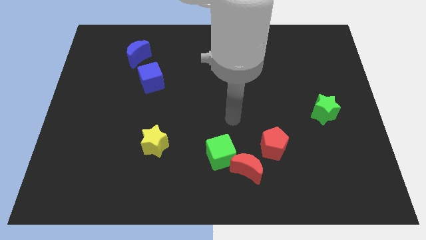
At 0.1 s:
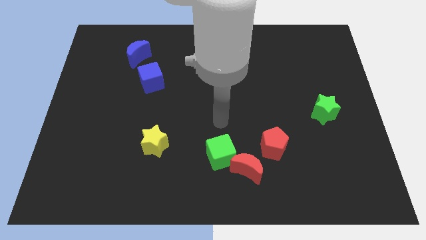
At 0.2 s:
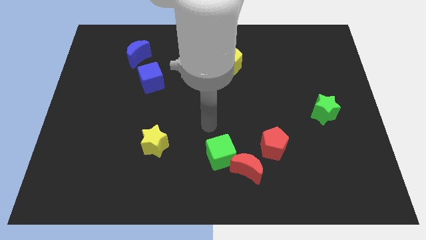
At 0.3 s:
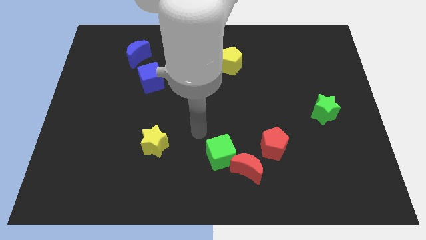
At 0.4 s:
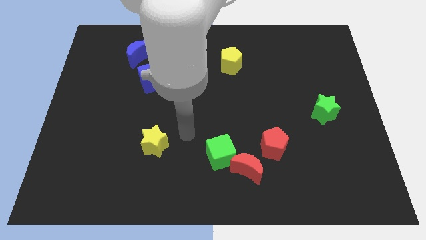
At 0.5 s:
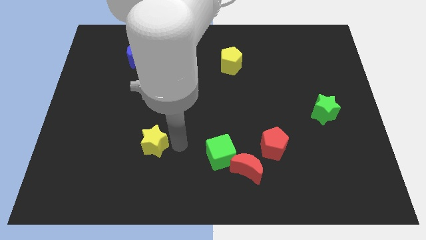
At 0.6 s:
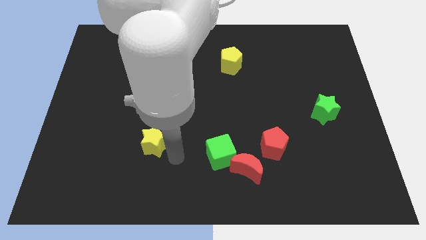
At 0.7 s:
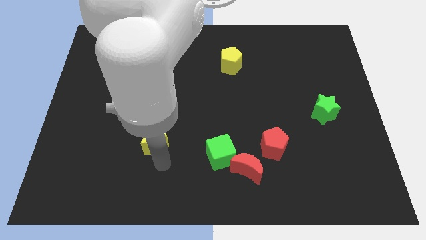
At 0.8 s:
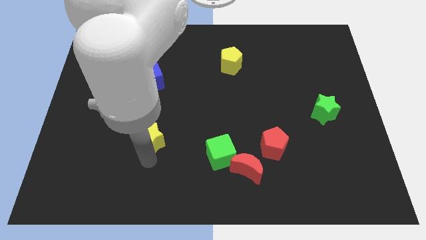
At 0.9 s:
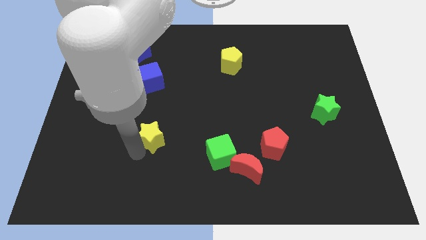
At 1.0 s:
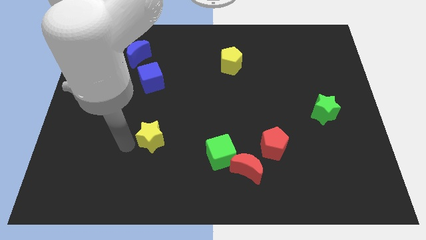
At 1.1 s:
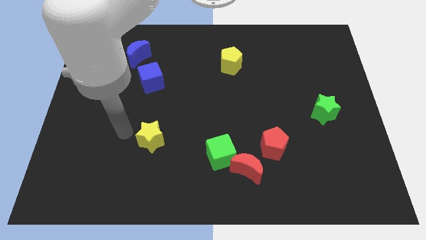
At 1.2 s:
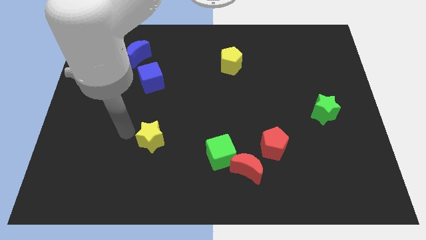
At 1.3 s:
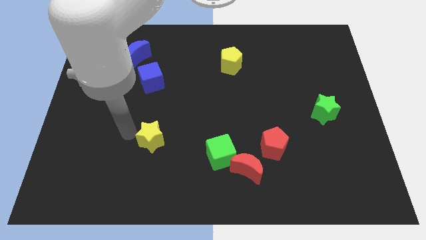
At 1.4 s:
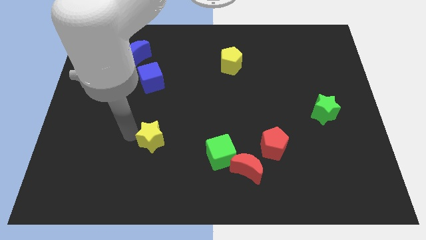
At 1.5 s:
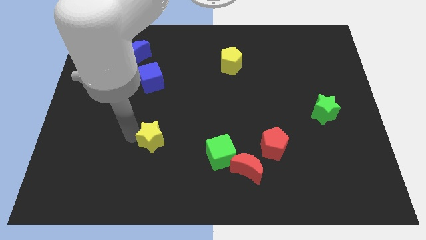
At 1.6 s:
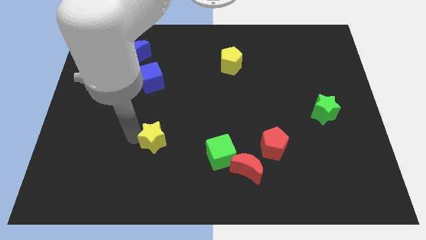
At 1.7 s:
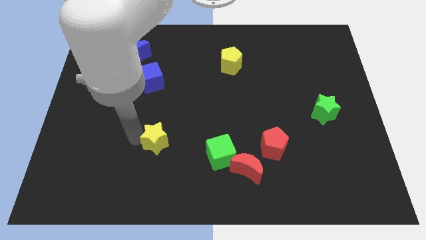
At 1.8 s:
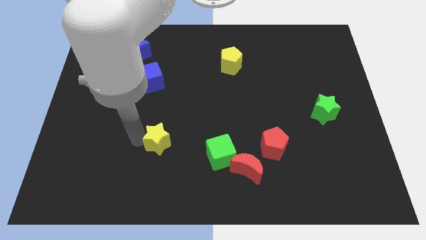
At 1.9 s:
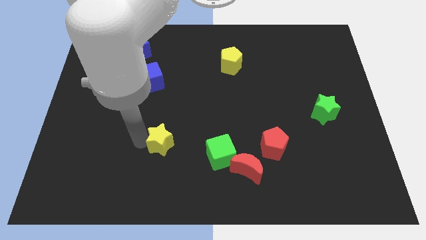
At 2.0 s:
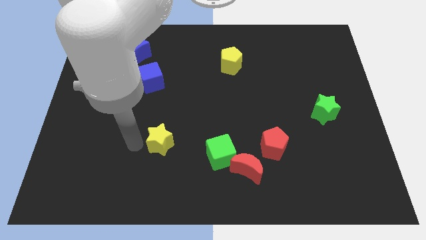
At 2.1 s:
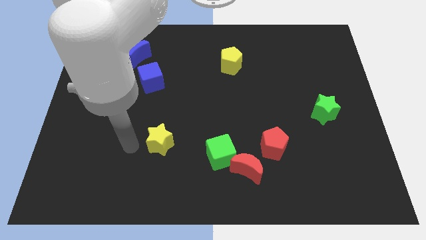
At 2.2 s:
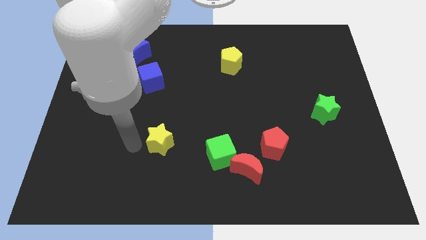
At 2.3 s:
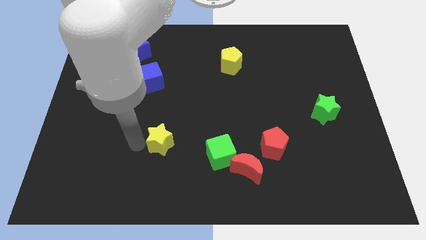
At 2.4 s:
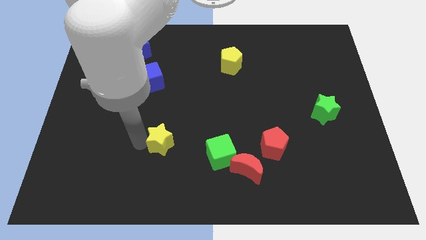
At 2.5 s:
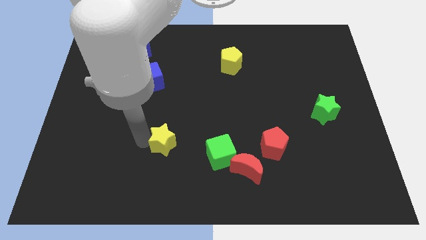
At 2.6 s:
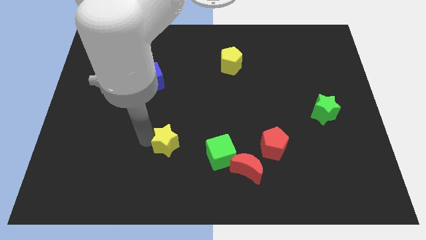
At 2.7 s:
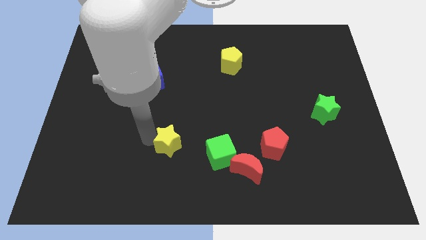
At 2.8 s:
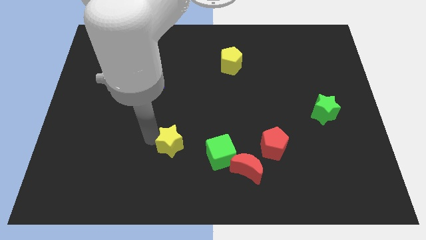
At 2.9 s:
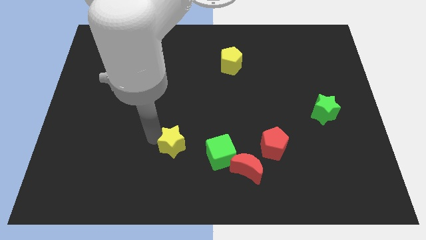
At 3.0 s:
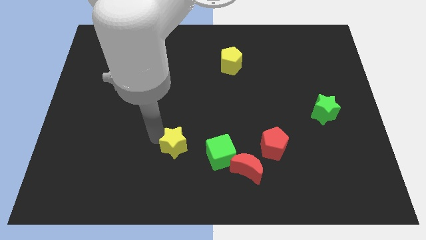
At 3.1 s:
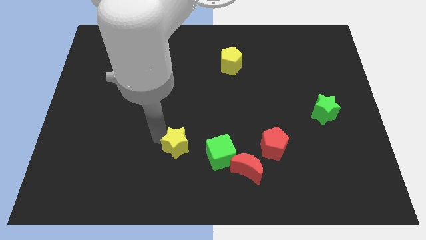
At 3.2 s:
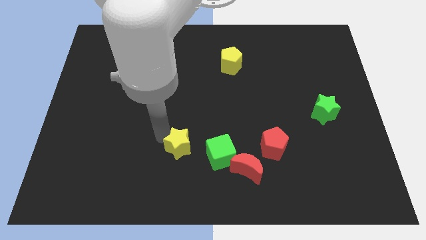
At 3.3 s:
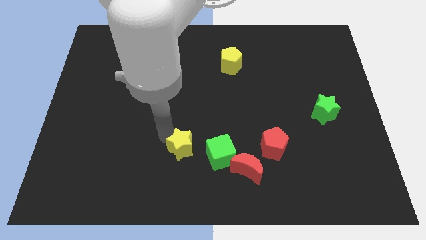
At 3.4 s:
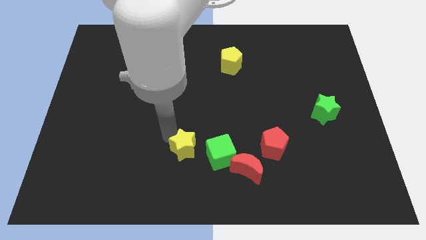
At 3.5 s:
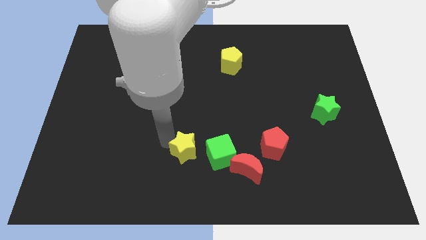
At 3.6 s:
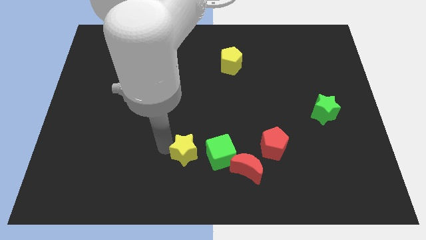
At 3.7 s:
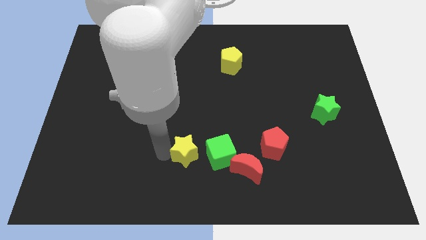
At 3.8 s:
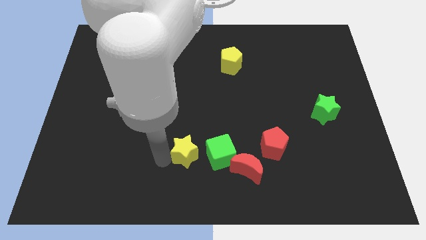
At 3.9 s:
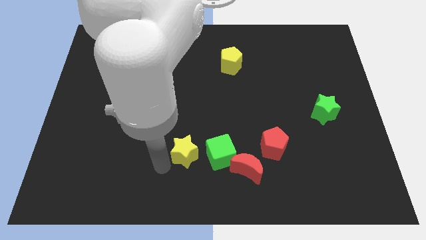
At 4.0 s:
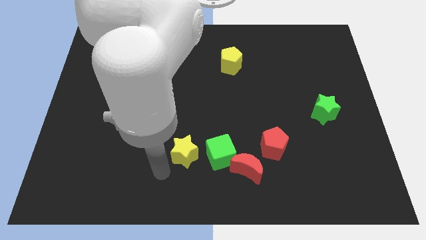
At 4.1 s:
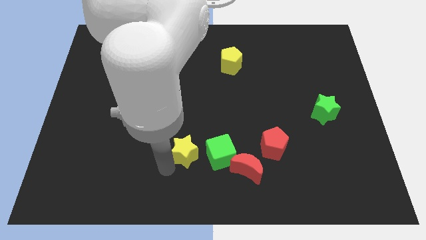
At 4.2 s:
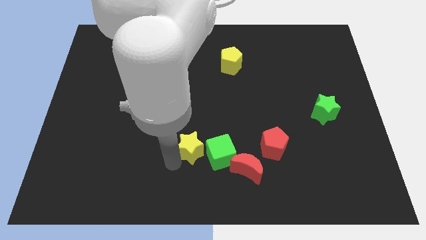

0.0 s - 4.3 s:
slightly push the yellow star to the right

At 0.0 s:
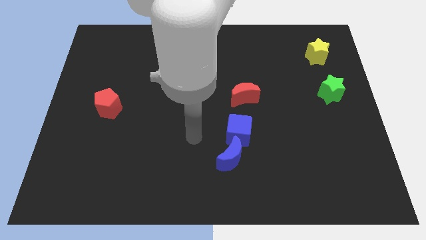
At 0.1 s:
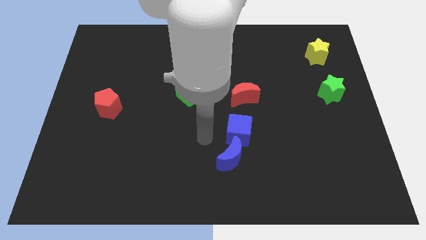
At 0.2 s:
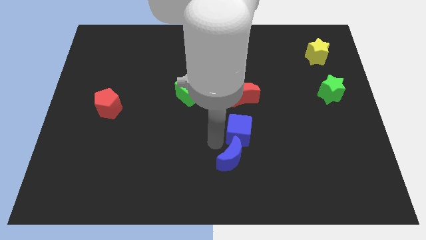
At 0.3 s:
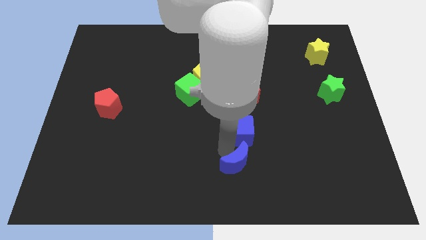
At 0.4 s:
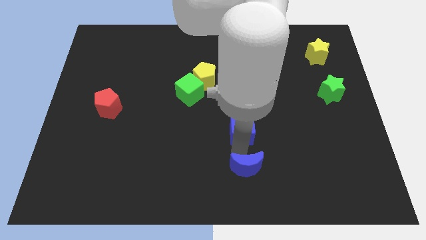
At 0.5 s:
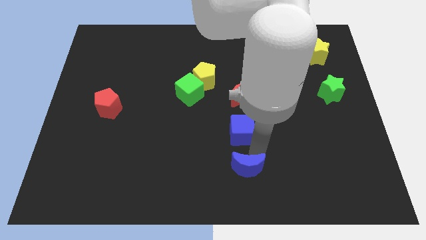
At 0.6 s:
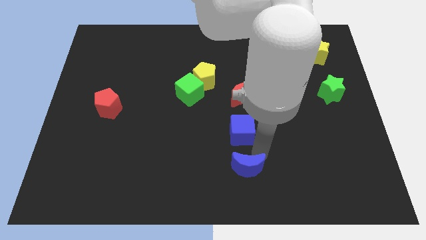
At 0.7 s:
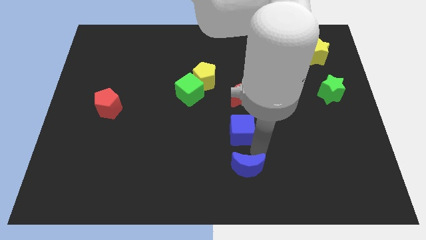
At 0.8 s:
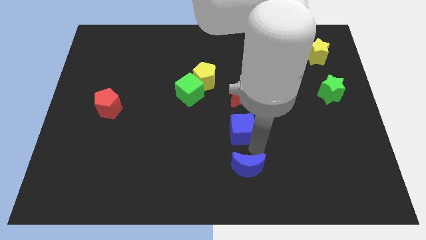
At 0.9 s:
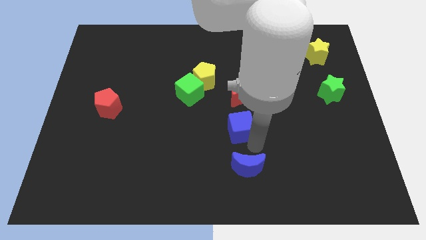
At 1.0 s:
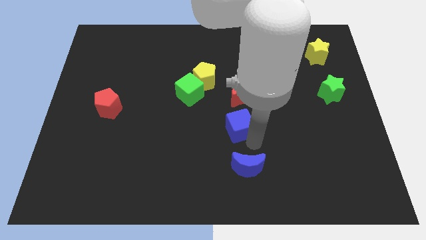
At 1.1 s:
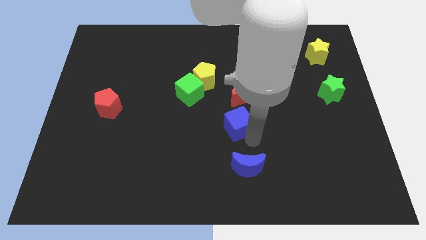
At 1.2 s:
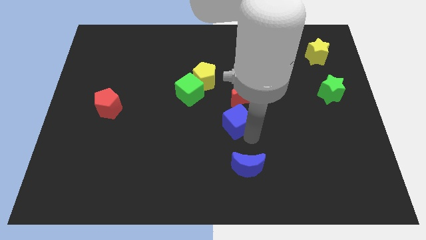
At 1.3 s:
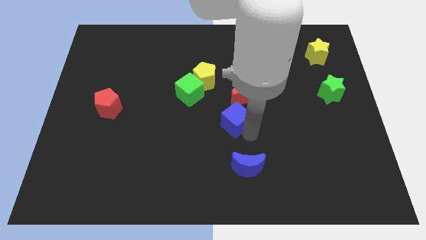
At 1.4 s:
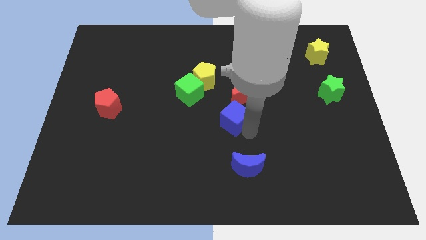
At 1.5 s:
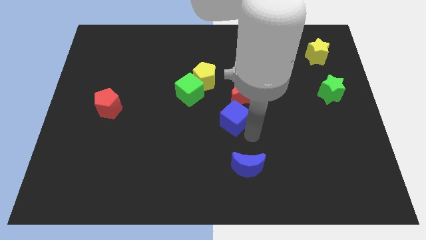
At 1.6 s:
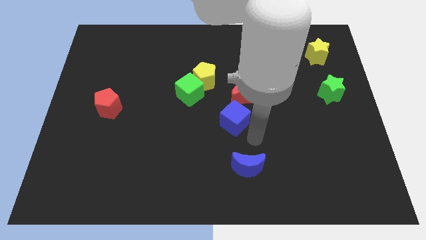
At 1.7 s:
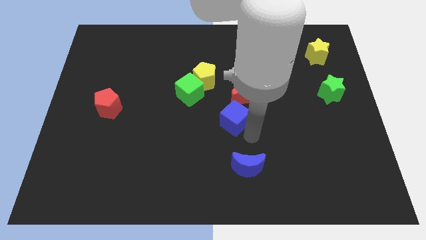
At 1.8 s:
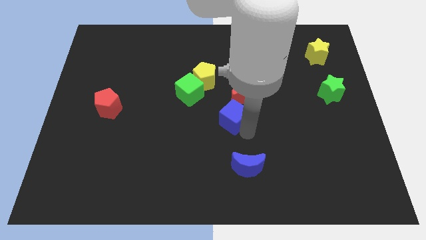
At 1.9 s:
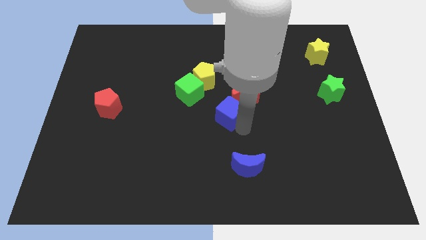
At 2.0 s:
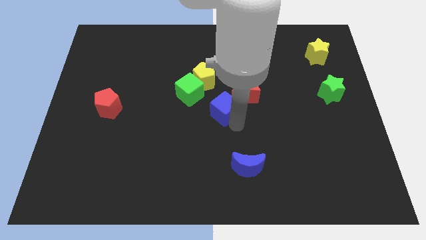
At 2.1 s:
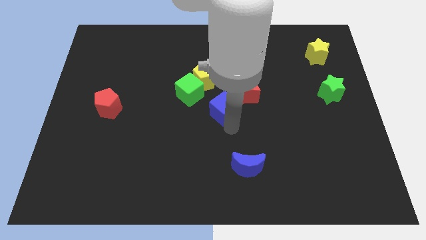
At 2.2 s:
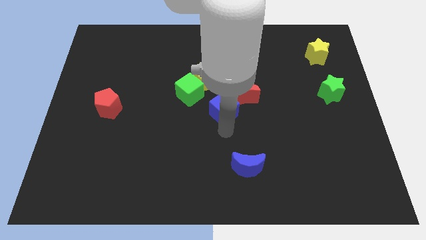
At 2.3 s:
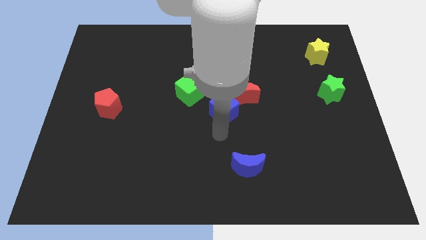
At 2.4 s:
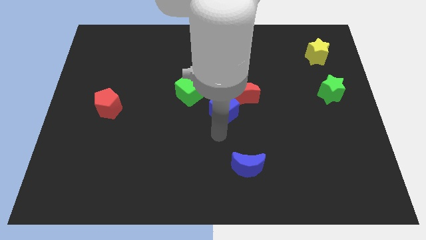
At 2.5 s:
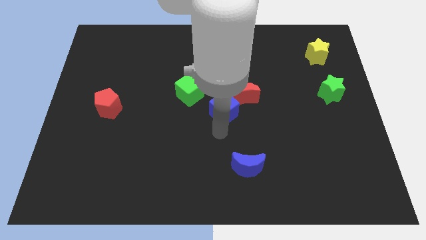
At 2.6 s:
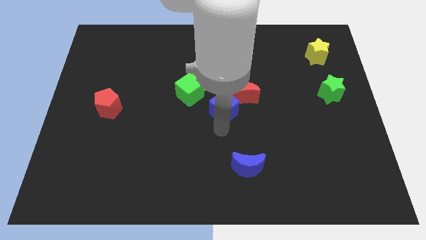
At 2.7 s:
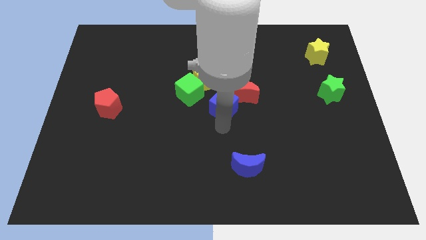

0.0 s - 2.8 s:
slightly slide the blue cube upwards

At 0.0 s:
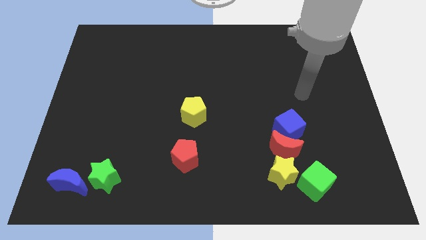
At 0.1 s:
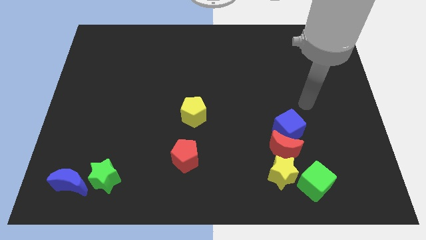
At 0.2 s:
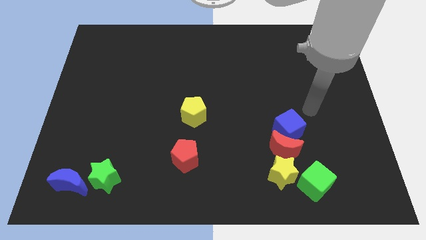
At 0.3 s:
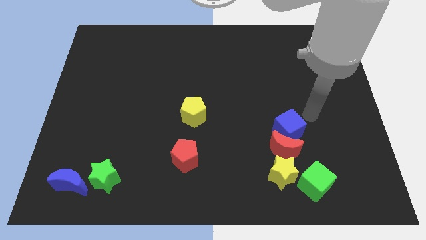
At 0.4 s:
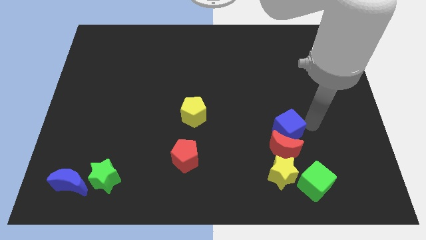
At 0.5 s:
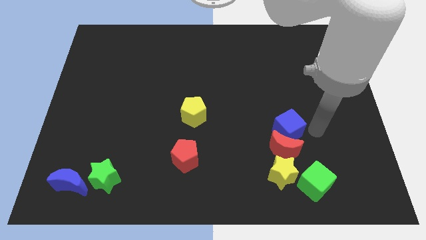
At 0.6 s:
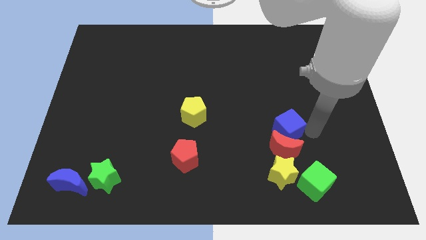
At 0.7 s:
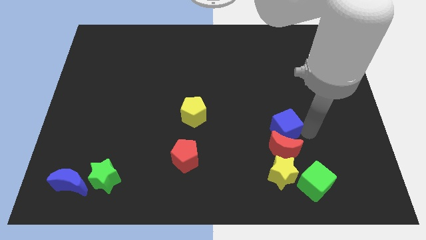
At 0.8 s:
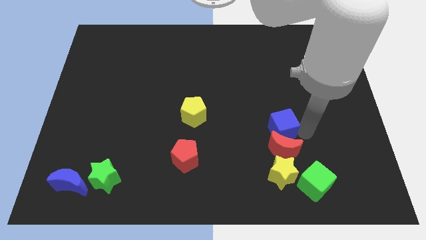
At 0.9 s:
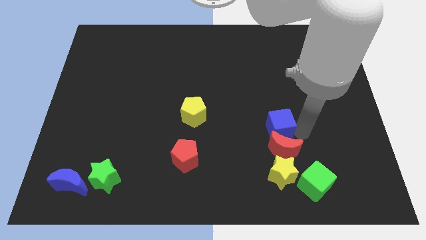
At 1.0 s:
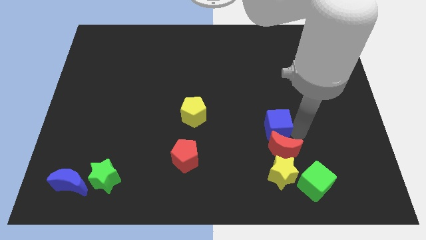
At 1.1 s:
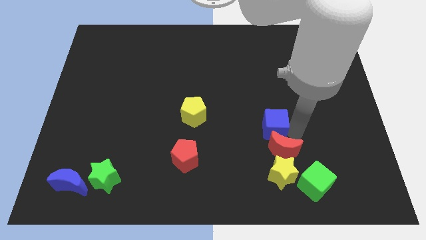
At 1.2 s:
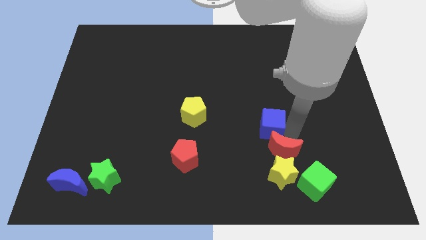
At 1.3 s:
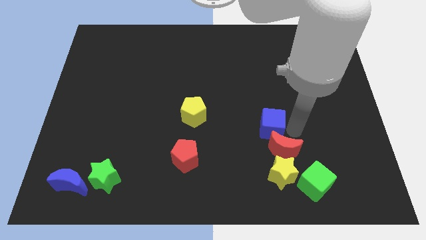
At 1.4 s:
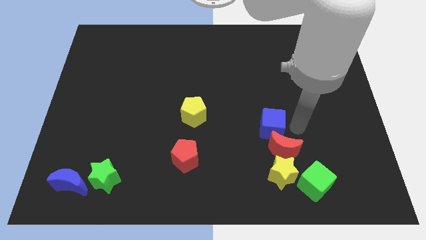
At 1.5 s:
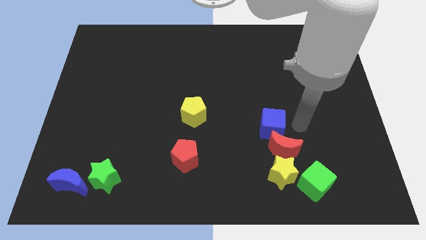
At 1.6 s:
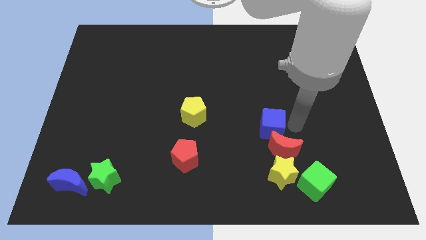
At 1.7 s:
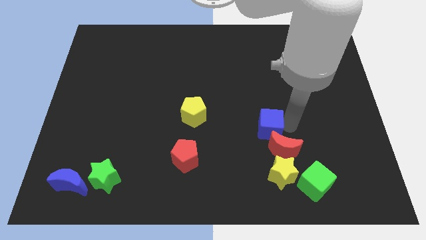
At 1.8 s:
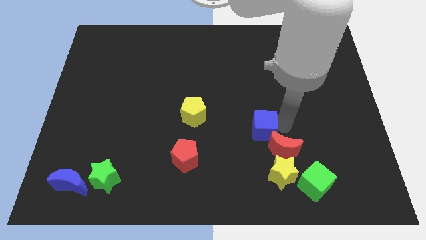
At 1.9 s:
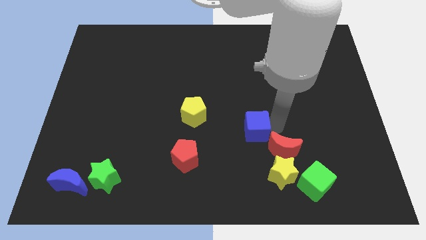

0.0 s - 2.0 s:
slightly slide the blue cube left
